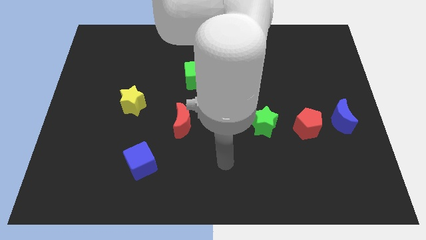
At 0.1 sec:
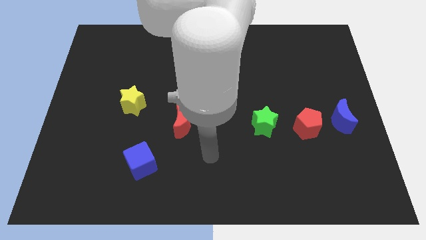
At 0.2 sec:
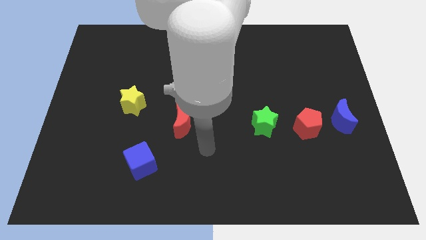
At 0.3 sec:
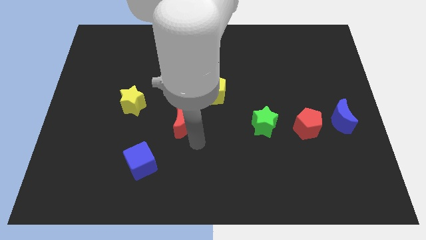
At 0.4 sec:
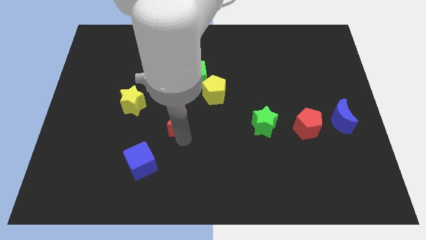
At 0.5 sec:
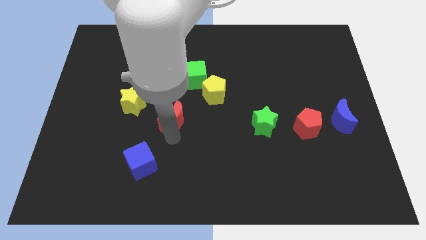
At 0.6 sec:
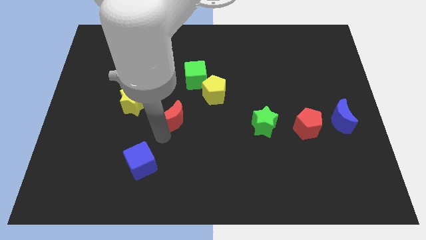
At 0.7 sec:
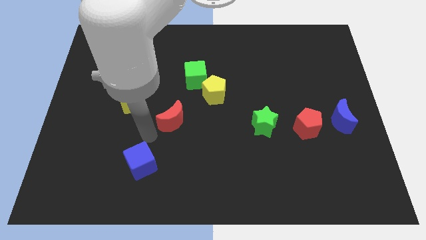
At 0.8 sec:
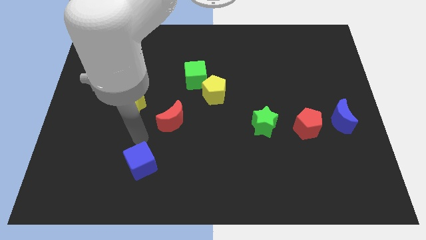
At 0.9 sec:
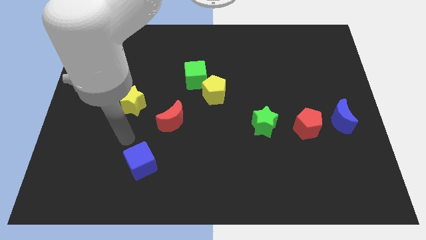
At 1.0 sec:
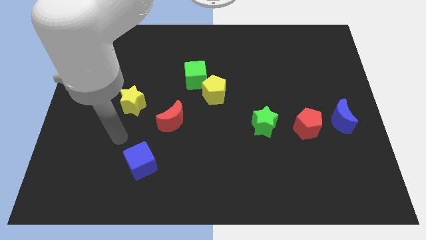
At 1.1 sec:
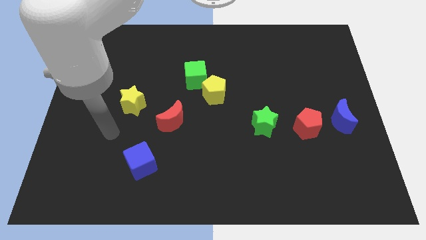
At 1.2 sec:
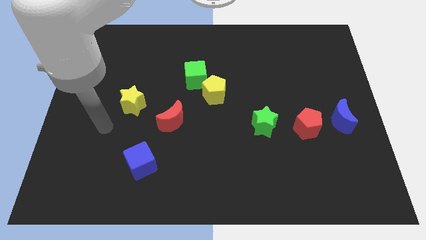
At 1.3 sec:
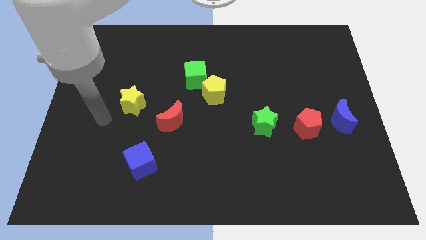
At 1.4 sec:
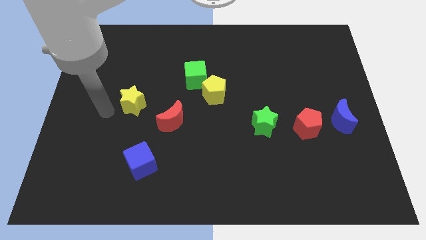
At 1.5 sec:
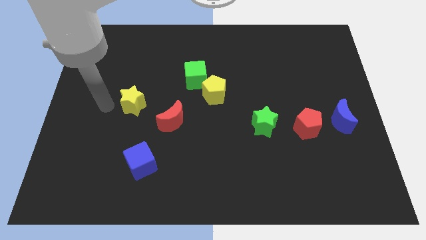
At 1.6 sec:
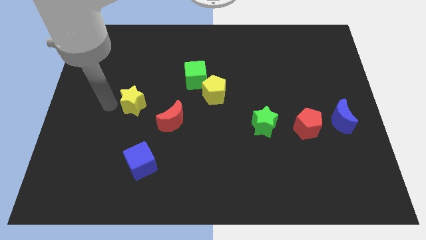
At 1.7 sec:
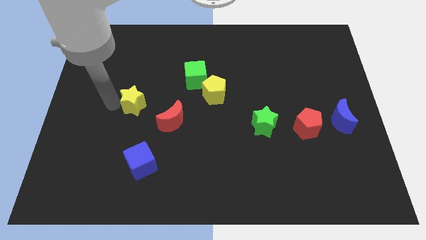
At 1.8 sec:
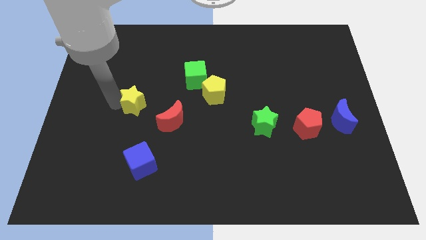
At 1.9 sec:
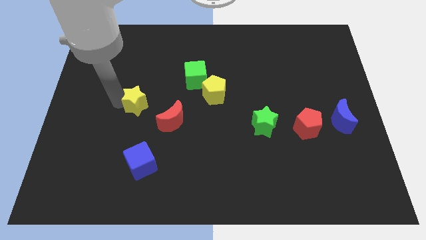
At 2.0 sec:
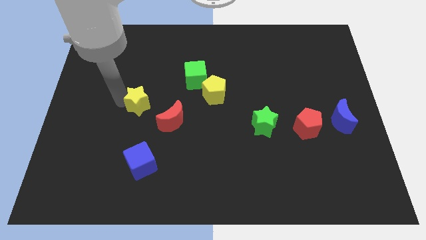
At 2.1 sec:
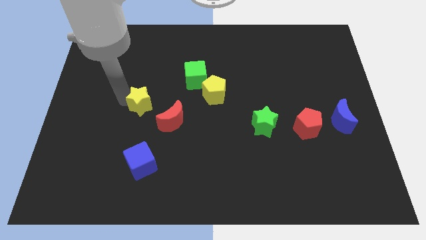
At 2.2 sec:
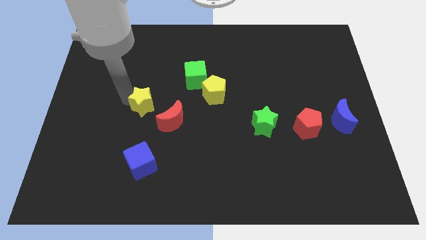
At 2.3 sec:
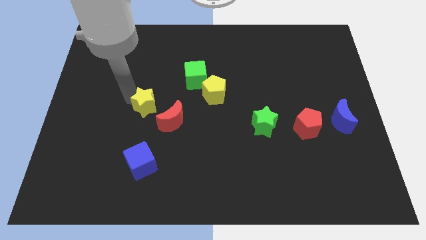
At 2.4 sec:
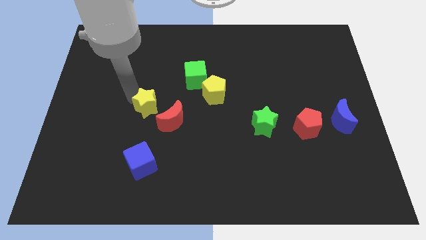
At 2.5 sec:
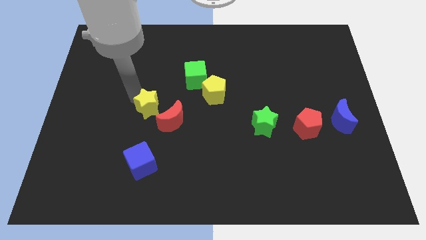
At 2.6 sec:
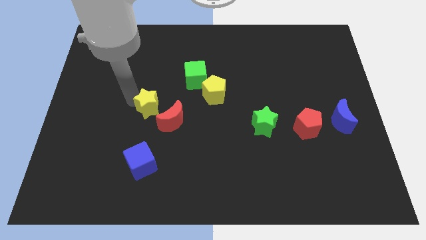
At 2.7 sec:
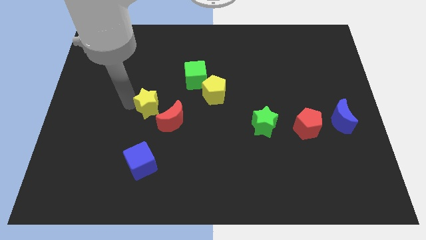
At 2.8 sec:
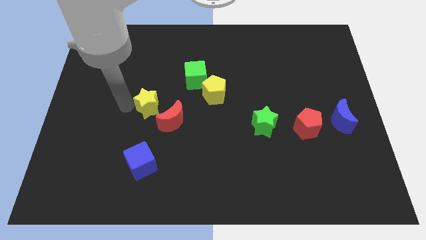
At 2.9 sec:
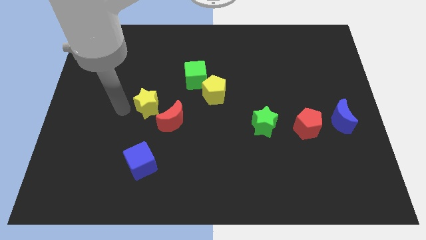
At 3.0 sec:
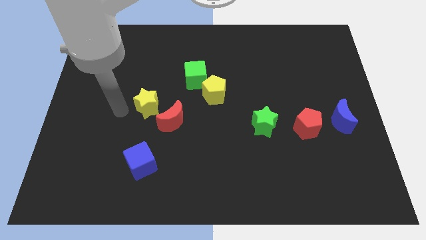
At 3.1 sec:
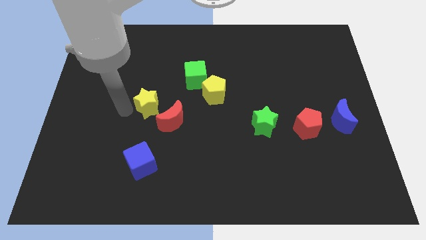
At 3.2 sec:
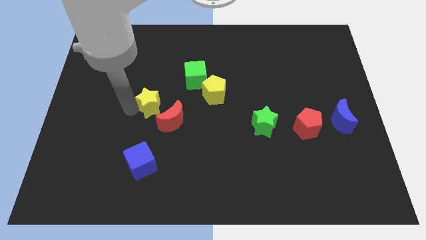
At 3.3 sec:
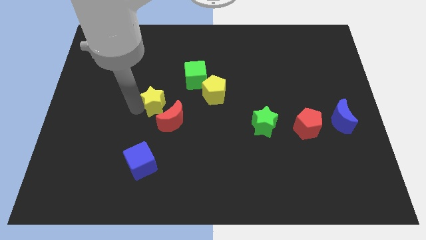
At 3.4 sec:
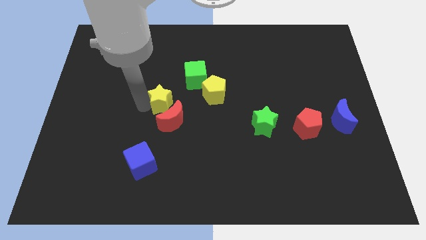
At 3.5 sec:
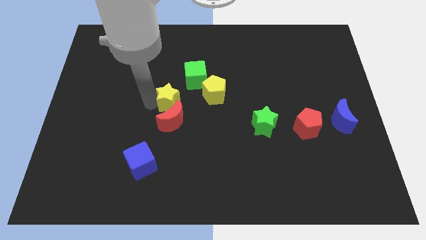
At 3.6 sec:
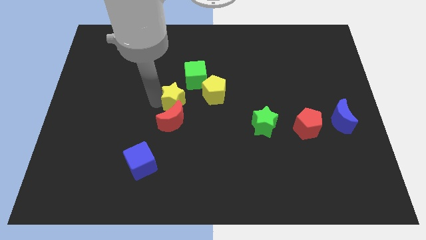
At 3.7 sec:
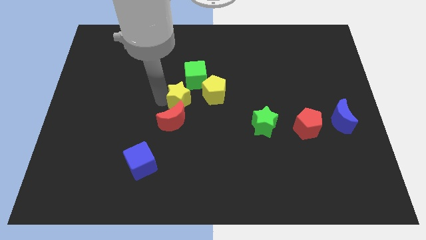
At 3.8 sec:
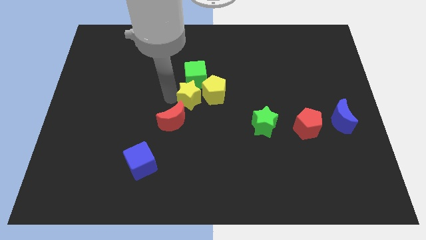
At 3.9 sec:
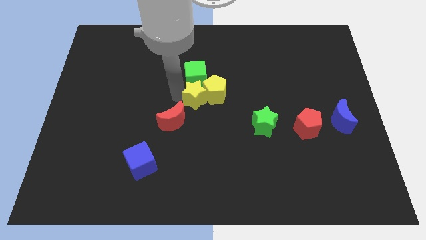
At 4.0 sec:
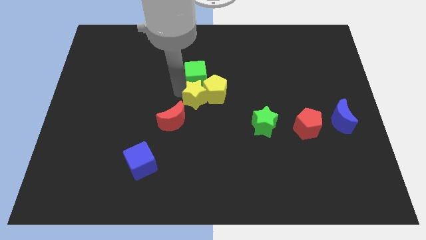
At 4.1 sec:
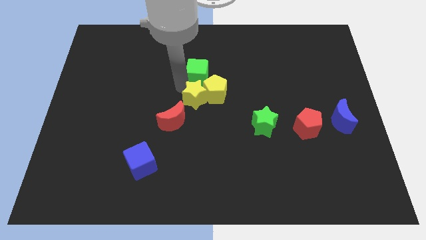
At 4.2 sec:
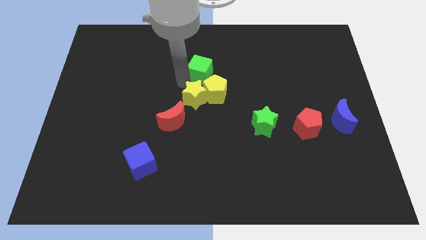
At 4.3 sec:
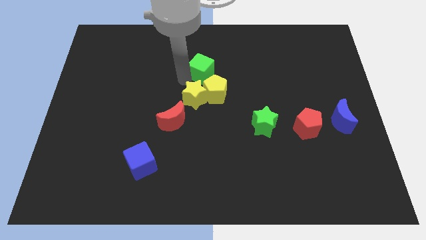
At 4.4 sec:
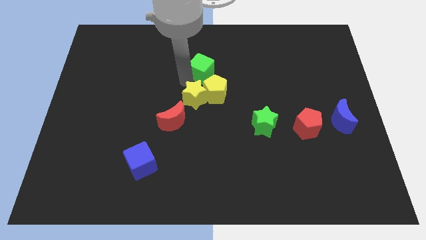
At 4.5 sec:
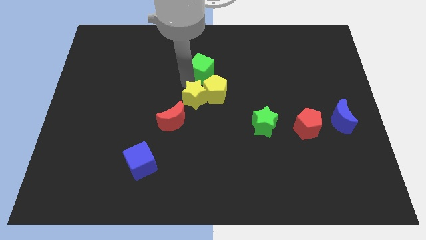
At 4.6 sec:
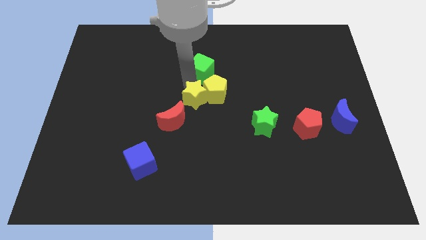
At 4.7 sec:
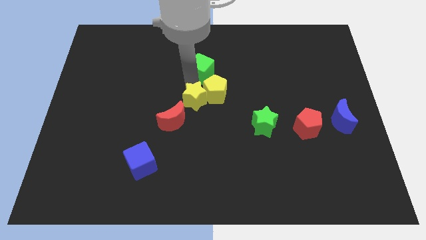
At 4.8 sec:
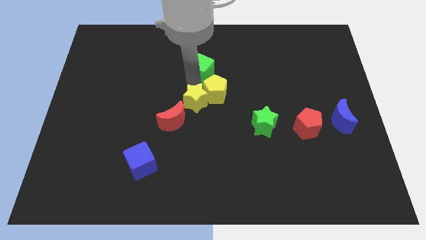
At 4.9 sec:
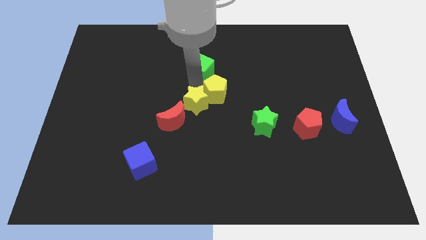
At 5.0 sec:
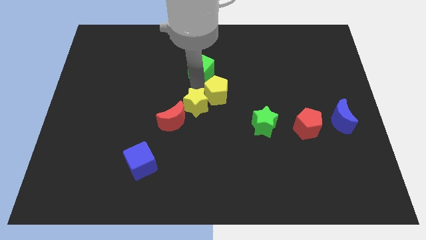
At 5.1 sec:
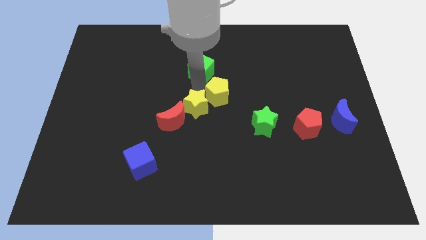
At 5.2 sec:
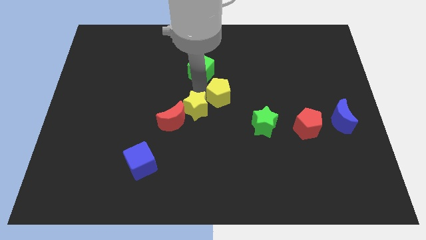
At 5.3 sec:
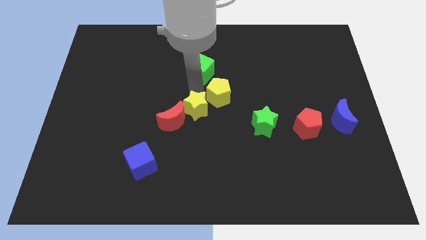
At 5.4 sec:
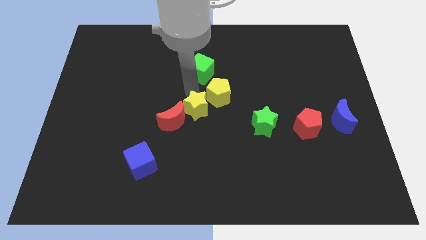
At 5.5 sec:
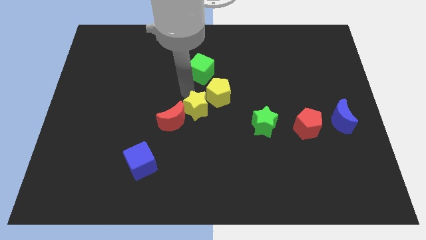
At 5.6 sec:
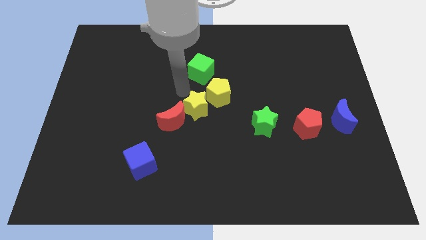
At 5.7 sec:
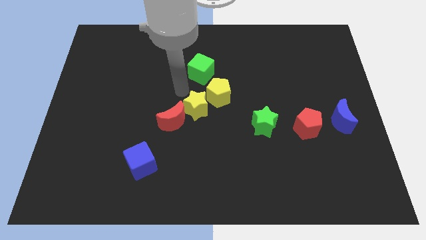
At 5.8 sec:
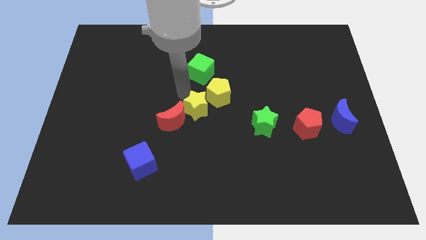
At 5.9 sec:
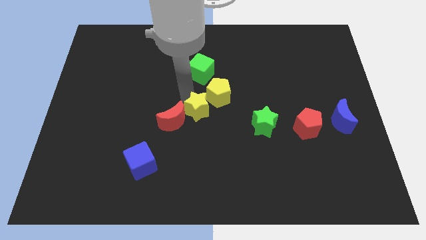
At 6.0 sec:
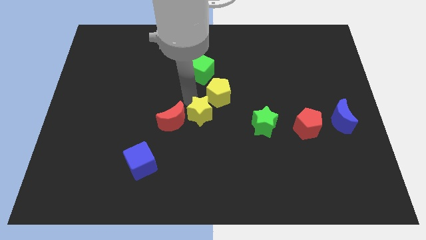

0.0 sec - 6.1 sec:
push the yellow star to the bottom side of the yellow pentagon

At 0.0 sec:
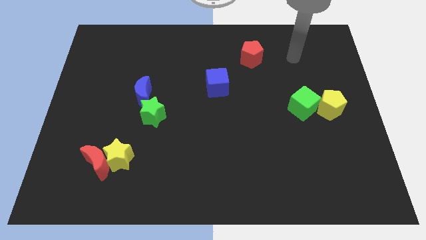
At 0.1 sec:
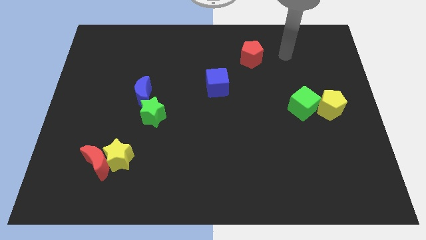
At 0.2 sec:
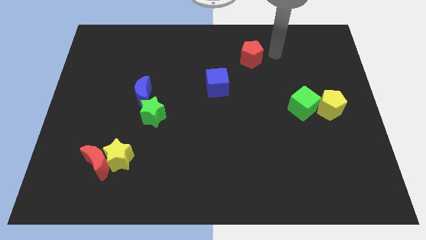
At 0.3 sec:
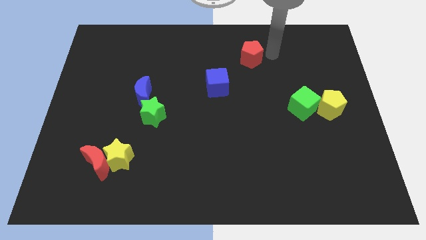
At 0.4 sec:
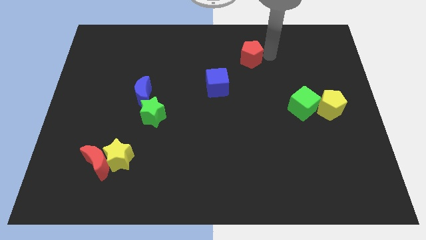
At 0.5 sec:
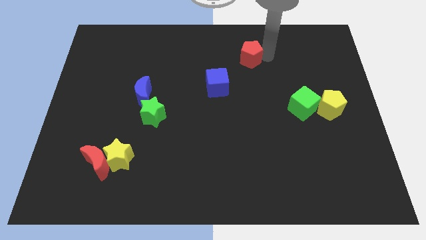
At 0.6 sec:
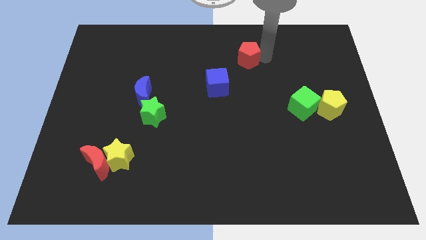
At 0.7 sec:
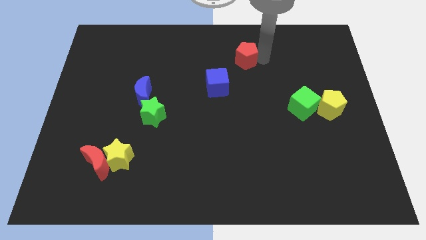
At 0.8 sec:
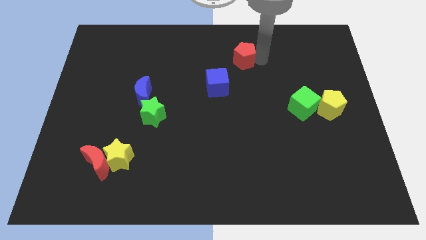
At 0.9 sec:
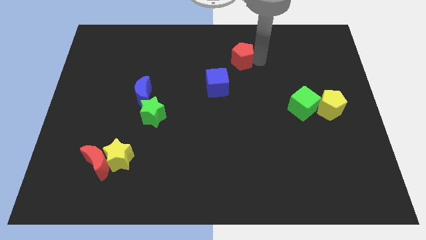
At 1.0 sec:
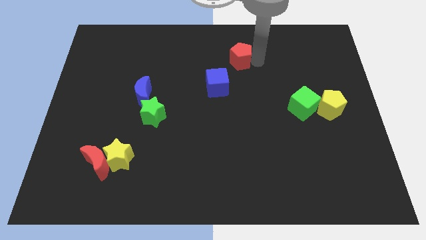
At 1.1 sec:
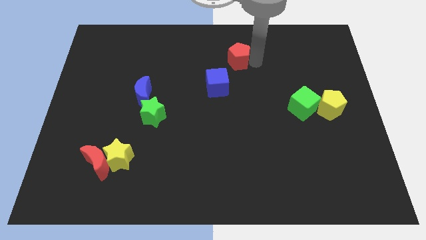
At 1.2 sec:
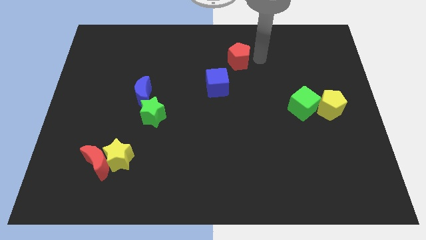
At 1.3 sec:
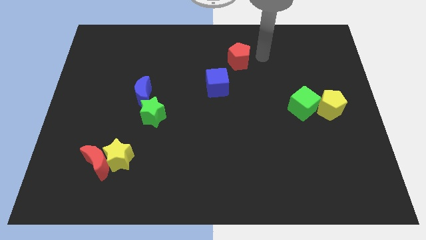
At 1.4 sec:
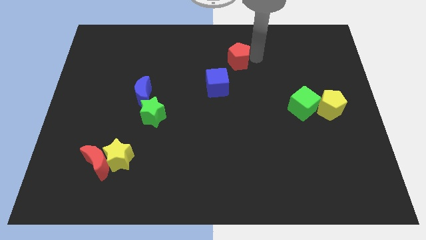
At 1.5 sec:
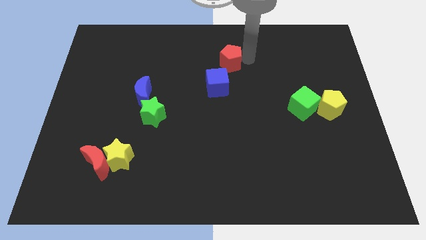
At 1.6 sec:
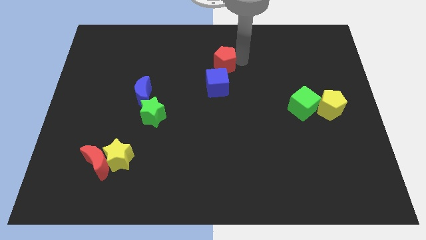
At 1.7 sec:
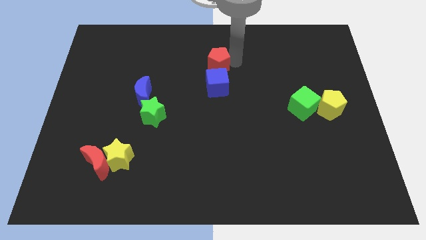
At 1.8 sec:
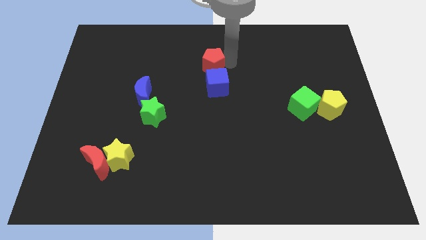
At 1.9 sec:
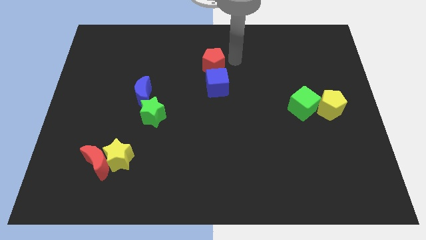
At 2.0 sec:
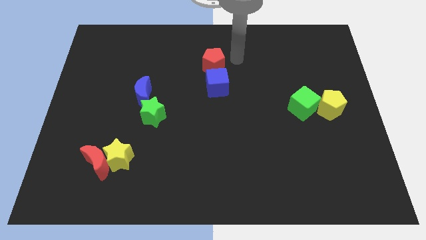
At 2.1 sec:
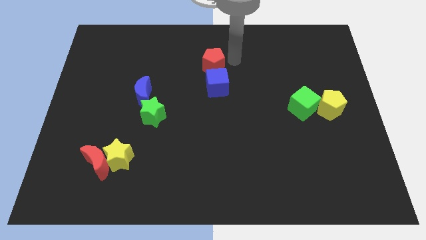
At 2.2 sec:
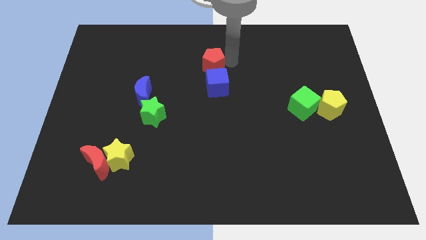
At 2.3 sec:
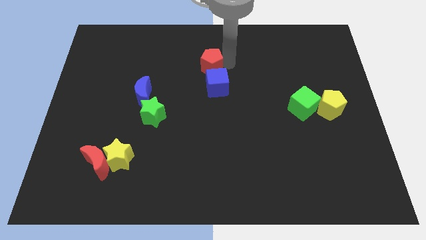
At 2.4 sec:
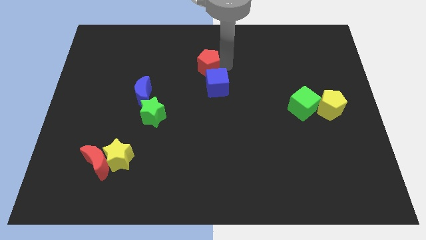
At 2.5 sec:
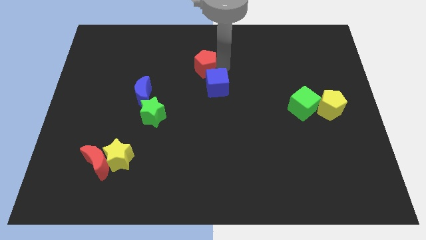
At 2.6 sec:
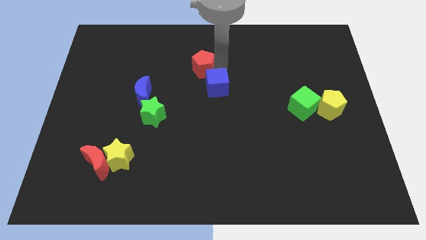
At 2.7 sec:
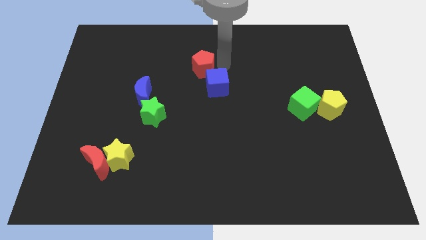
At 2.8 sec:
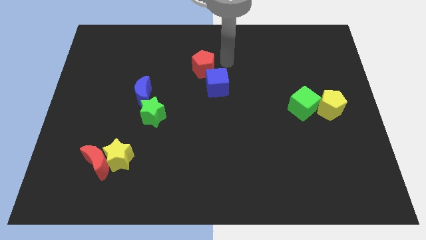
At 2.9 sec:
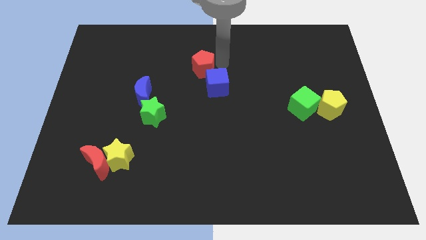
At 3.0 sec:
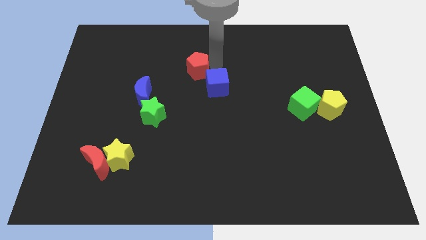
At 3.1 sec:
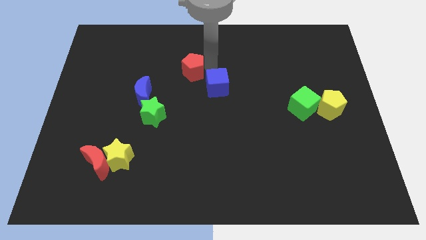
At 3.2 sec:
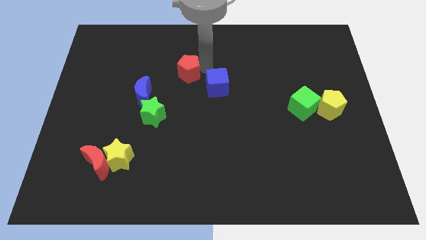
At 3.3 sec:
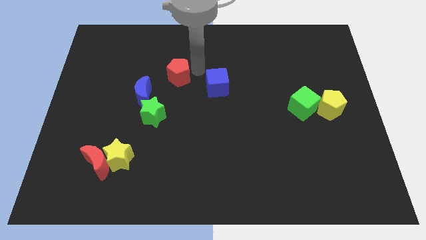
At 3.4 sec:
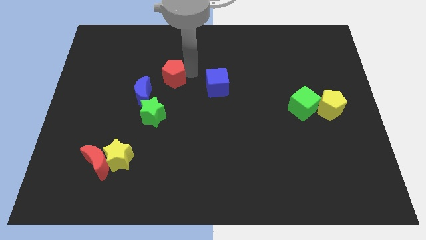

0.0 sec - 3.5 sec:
slide the red pentagon to the top of the green star
